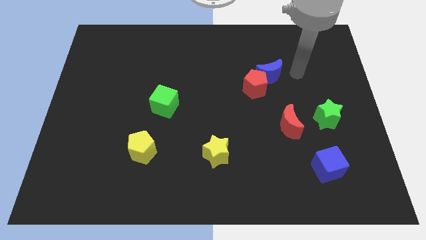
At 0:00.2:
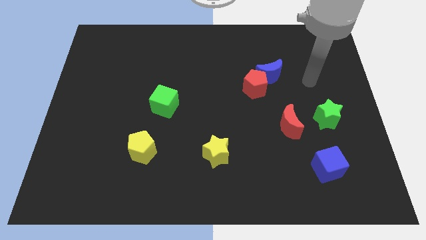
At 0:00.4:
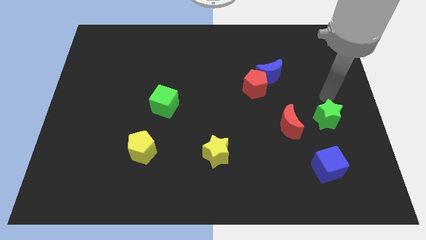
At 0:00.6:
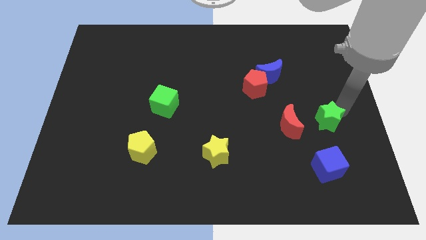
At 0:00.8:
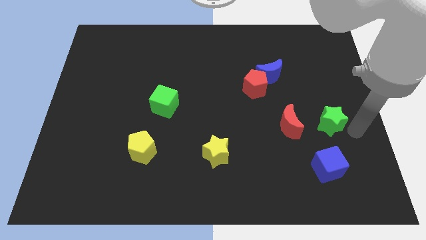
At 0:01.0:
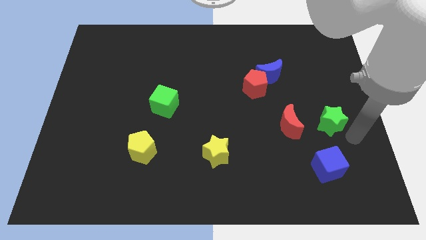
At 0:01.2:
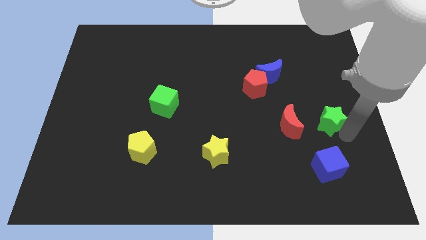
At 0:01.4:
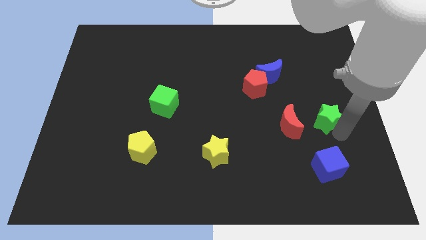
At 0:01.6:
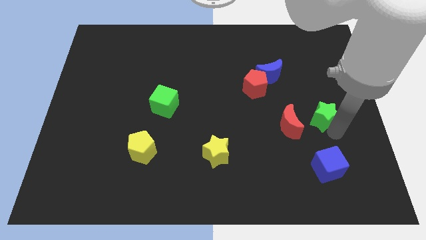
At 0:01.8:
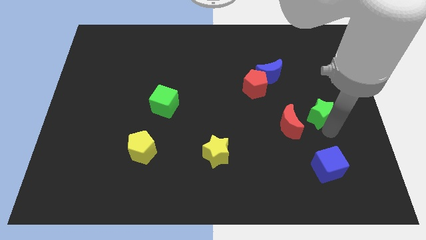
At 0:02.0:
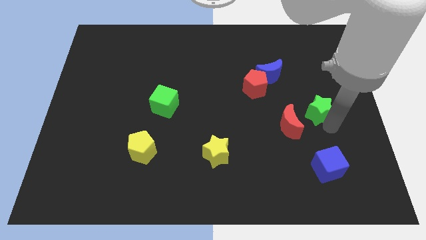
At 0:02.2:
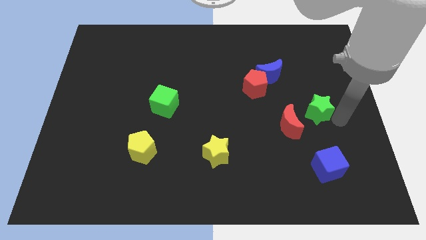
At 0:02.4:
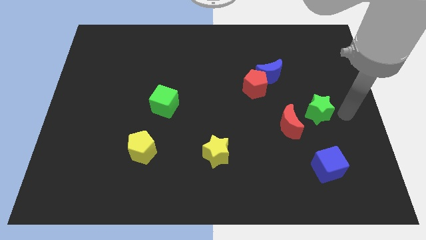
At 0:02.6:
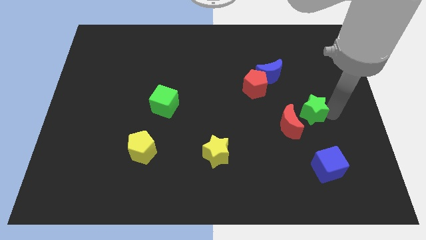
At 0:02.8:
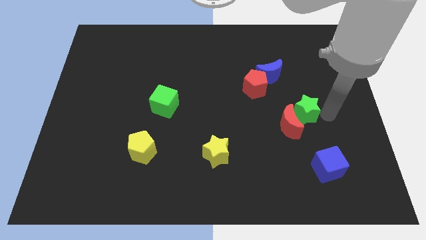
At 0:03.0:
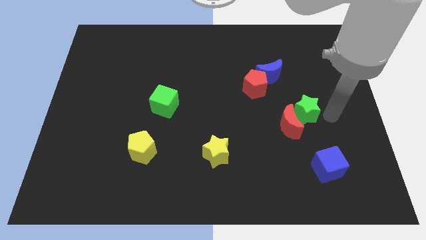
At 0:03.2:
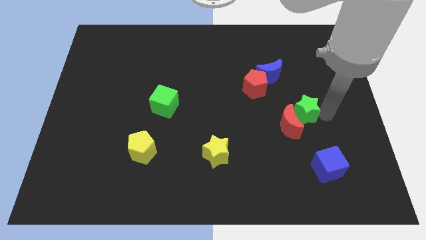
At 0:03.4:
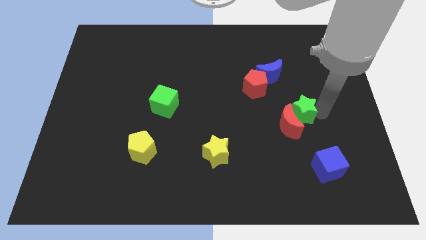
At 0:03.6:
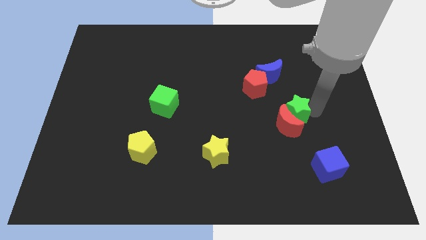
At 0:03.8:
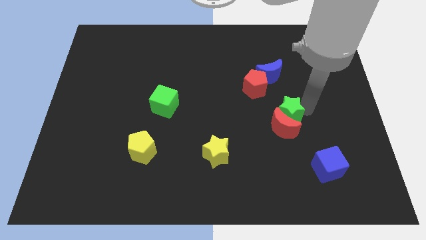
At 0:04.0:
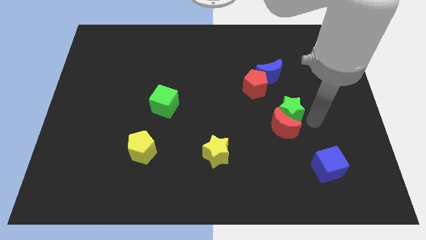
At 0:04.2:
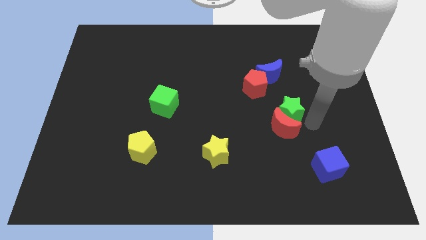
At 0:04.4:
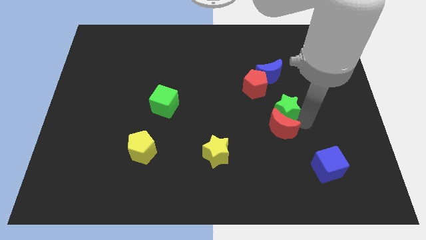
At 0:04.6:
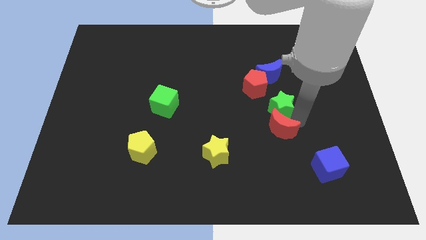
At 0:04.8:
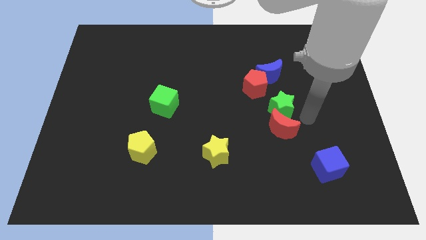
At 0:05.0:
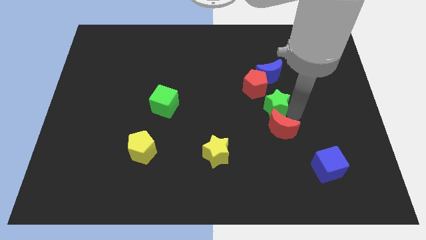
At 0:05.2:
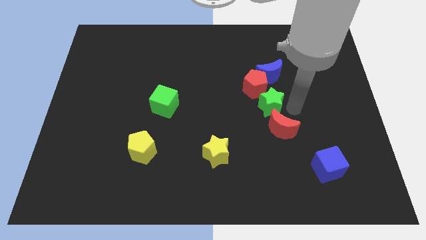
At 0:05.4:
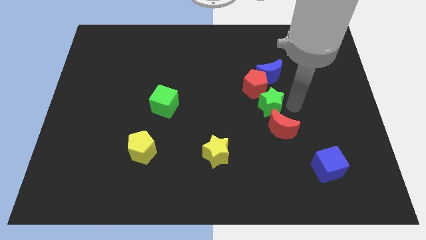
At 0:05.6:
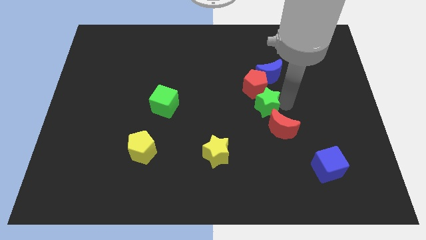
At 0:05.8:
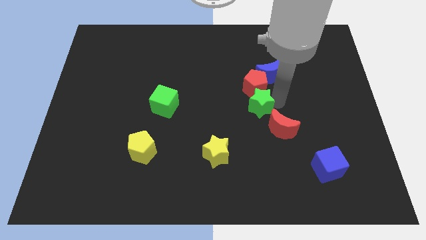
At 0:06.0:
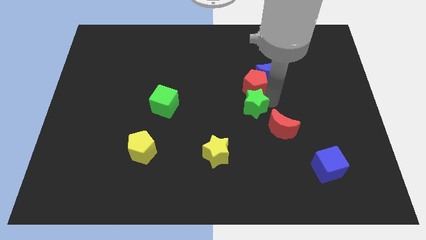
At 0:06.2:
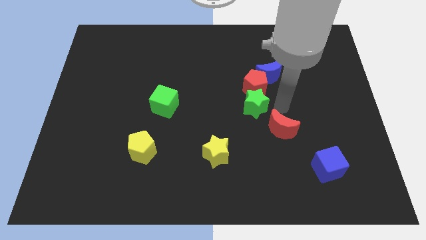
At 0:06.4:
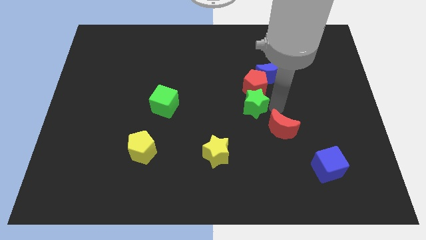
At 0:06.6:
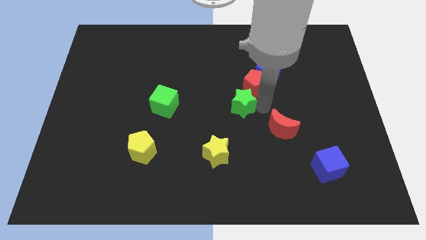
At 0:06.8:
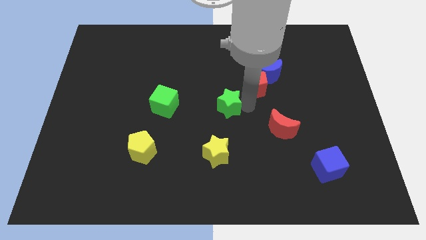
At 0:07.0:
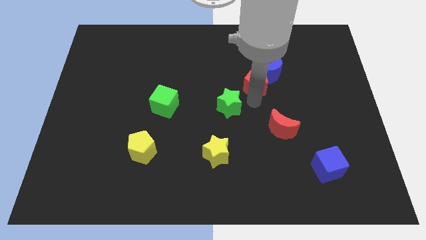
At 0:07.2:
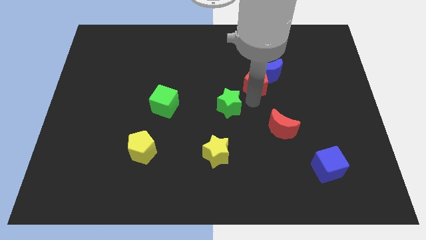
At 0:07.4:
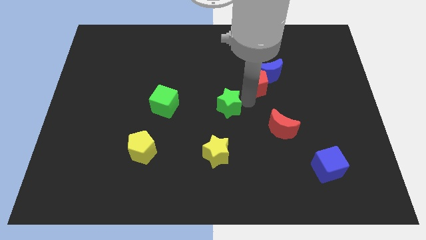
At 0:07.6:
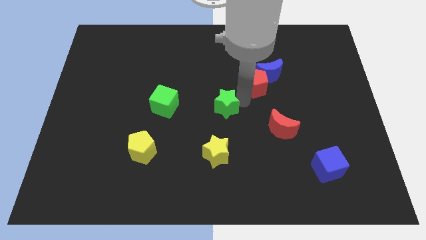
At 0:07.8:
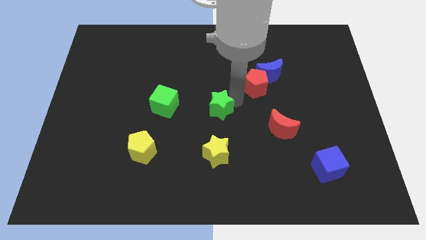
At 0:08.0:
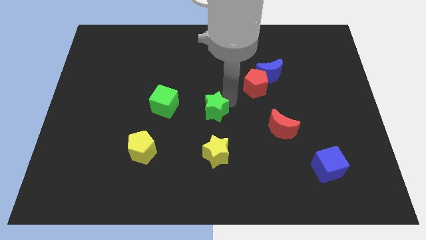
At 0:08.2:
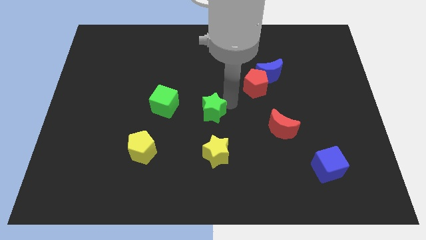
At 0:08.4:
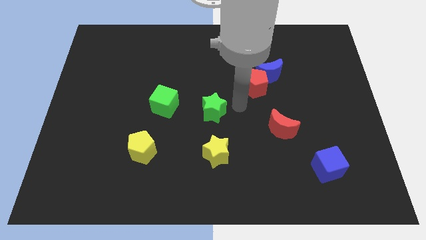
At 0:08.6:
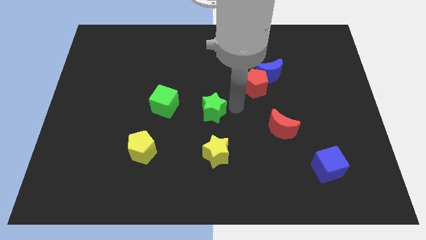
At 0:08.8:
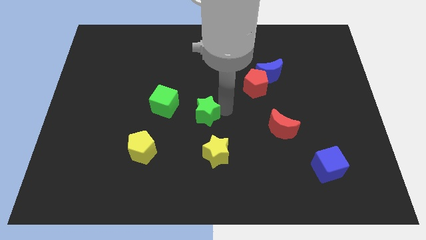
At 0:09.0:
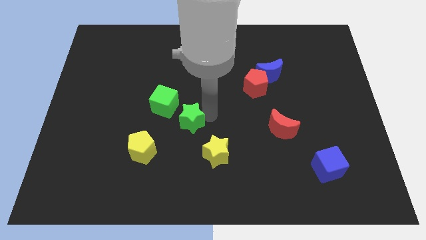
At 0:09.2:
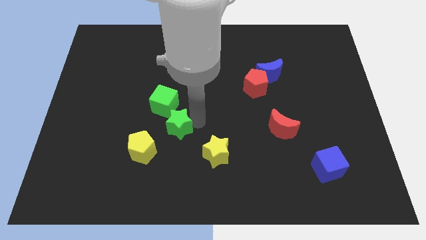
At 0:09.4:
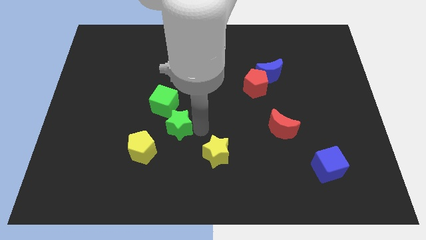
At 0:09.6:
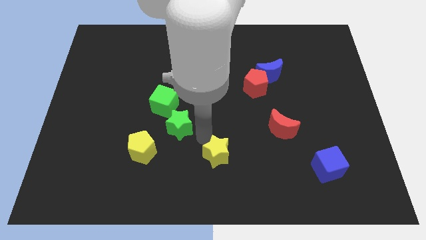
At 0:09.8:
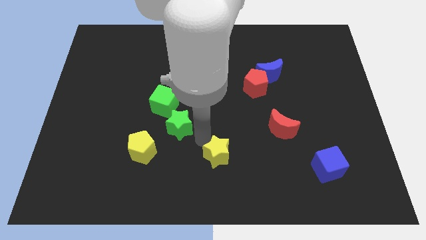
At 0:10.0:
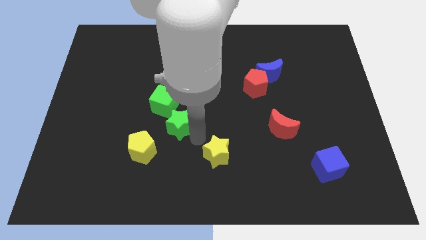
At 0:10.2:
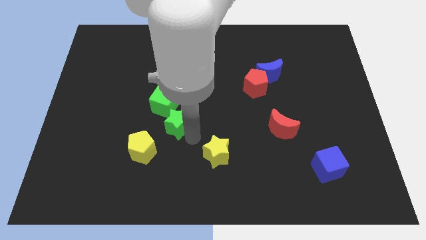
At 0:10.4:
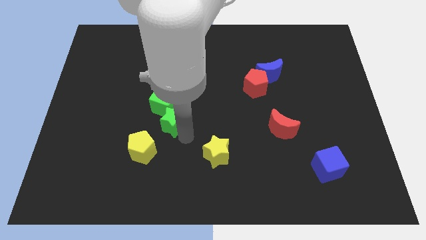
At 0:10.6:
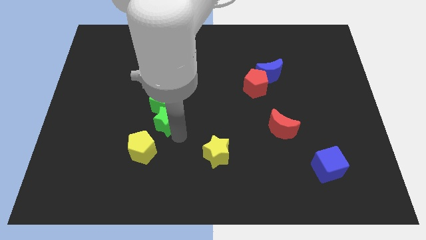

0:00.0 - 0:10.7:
put the green star to the top of the yellow pentagon

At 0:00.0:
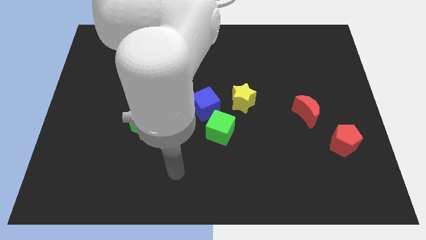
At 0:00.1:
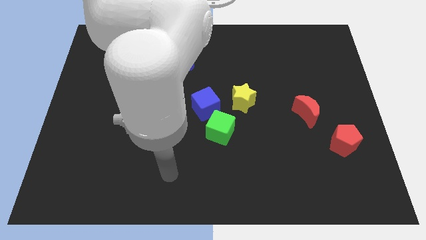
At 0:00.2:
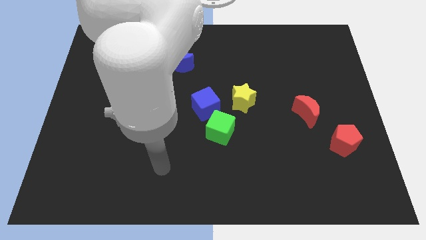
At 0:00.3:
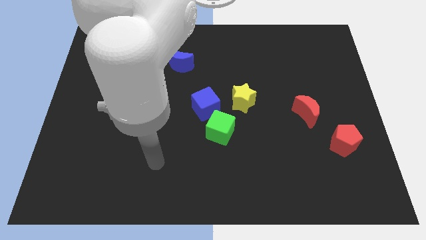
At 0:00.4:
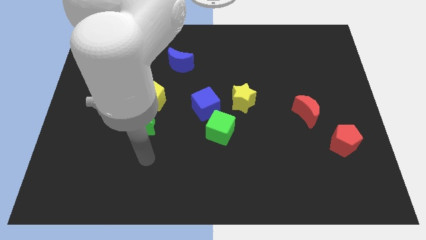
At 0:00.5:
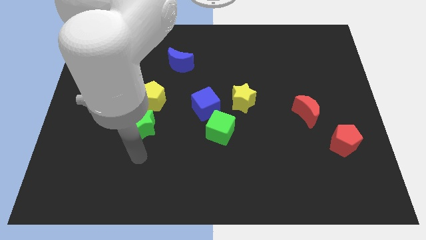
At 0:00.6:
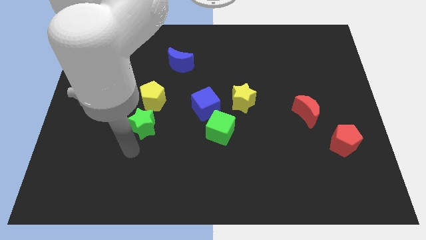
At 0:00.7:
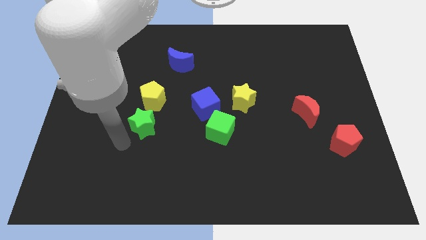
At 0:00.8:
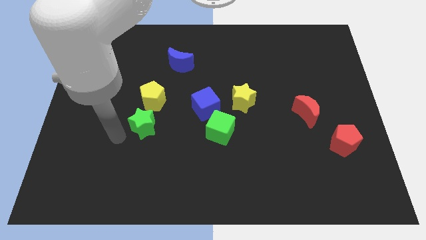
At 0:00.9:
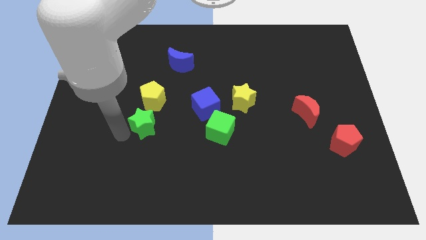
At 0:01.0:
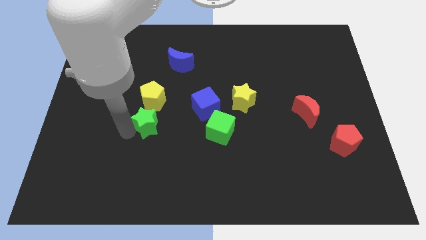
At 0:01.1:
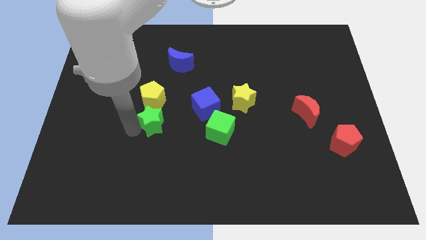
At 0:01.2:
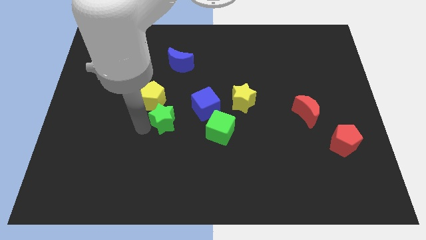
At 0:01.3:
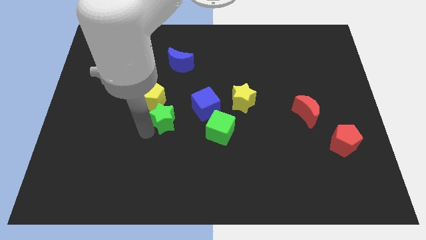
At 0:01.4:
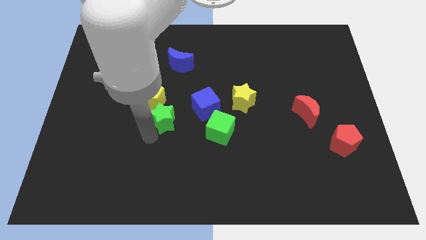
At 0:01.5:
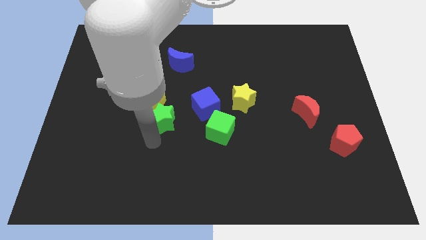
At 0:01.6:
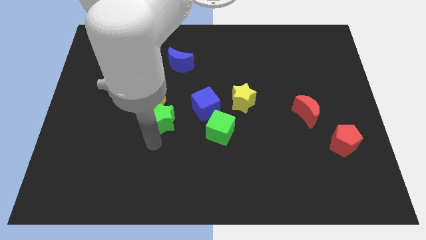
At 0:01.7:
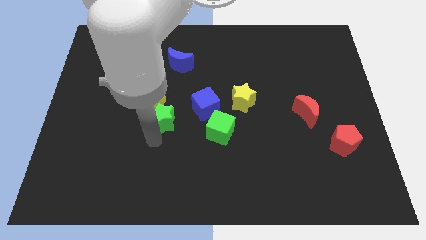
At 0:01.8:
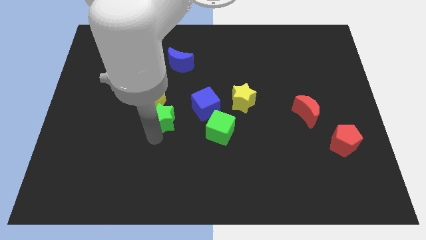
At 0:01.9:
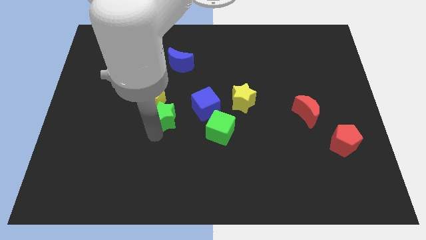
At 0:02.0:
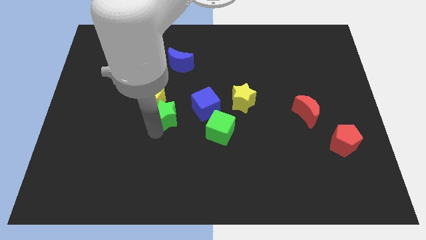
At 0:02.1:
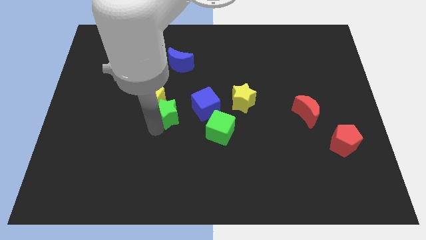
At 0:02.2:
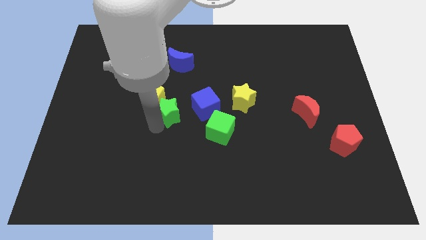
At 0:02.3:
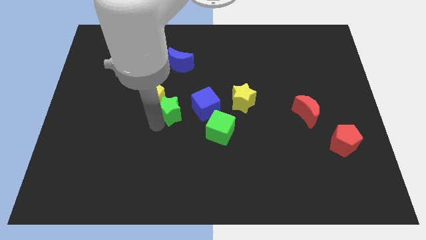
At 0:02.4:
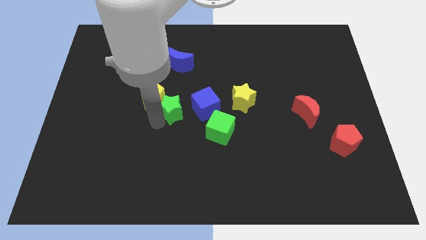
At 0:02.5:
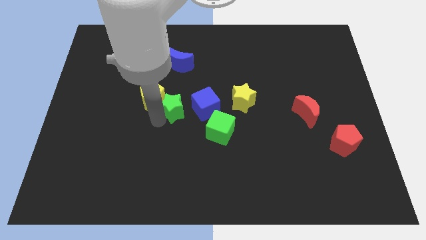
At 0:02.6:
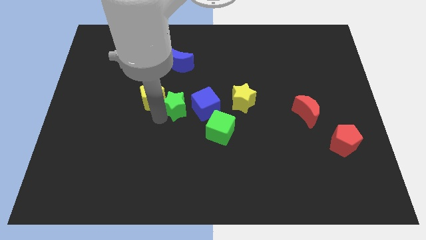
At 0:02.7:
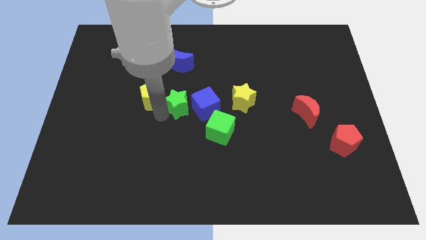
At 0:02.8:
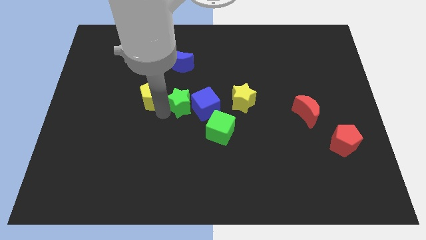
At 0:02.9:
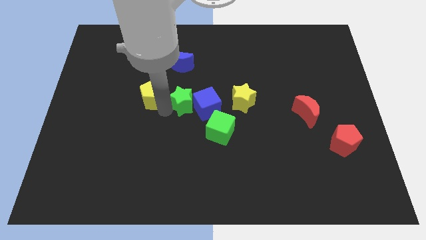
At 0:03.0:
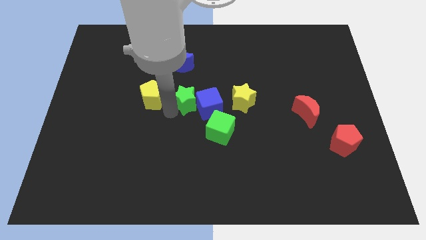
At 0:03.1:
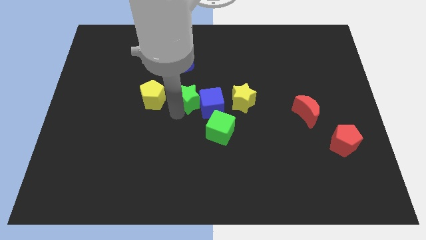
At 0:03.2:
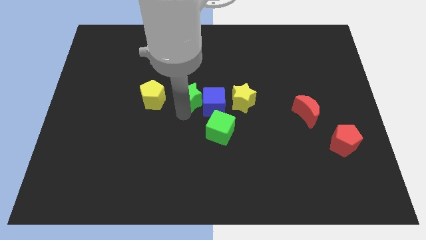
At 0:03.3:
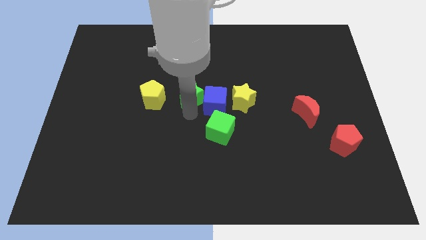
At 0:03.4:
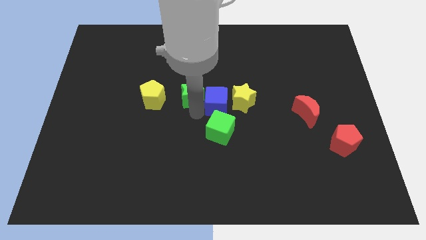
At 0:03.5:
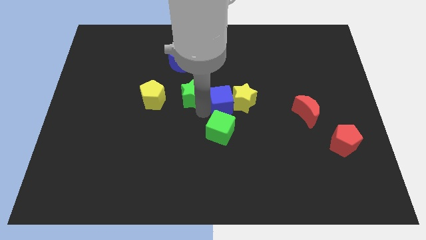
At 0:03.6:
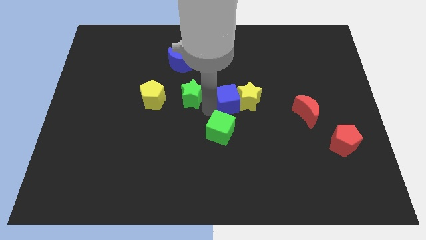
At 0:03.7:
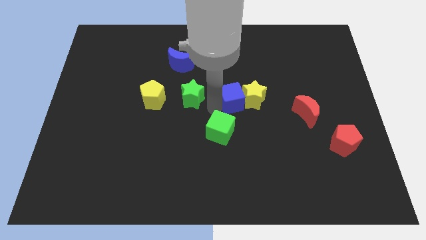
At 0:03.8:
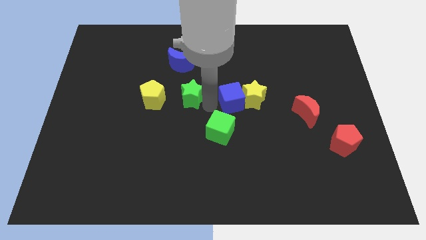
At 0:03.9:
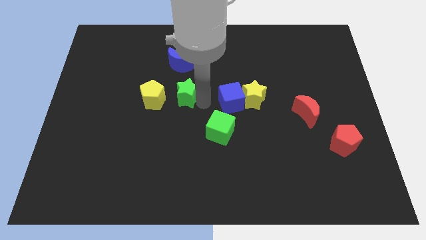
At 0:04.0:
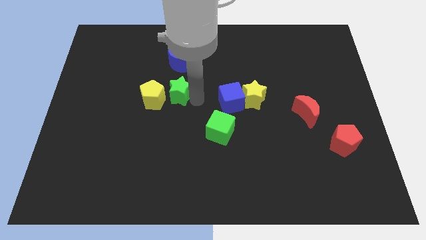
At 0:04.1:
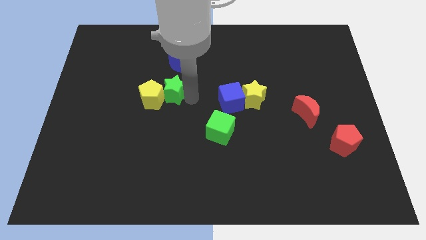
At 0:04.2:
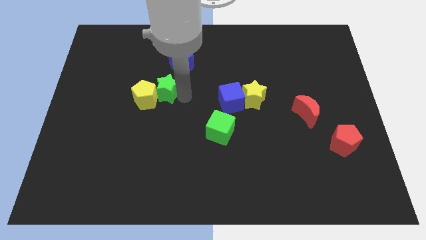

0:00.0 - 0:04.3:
slide the green star to the bottom left side of the blue moon
